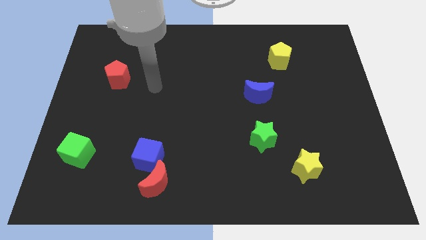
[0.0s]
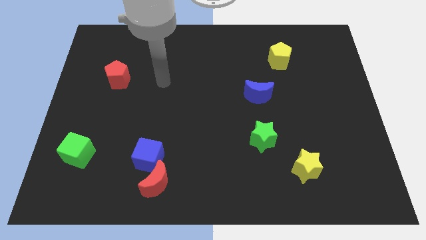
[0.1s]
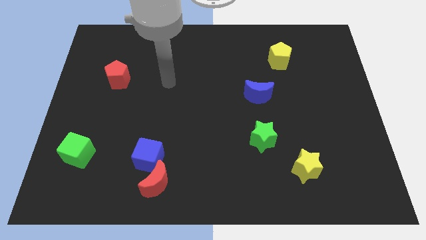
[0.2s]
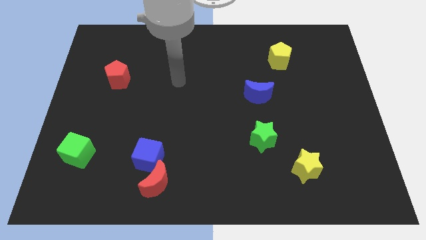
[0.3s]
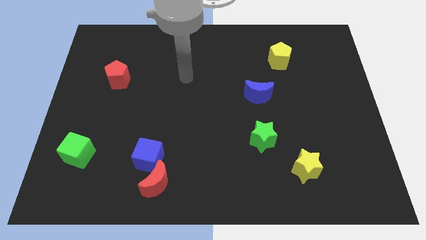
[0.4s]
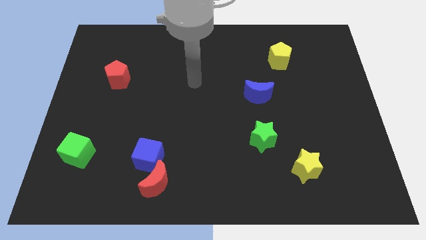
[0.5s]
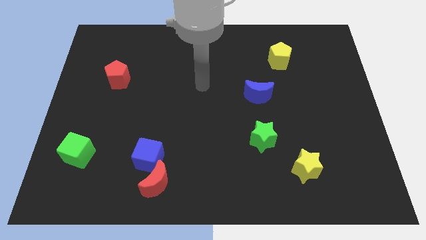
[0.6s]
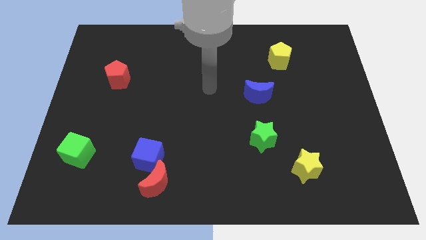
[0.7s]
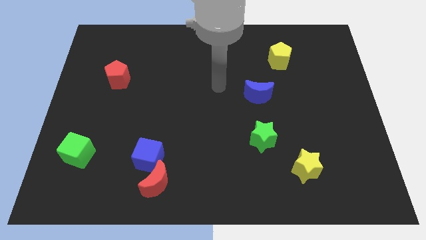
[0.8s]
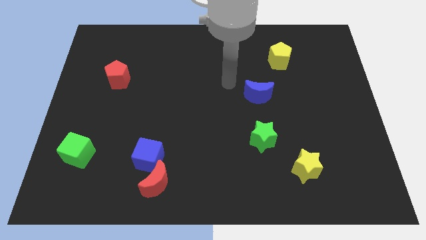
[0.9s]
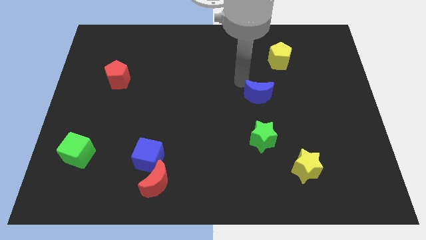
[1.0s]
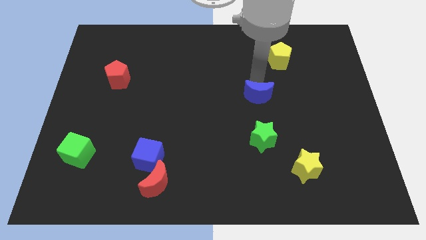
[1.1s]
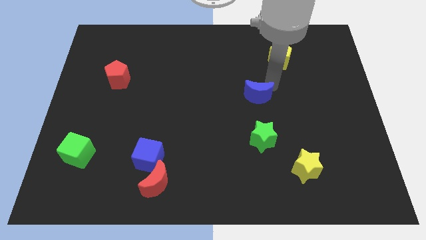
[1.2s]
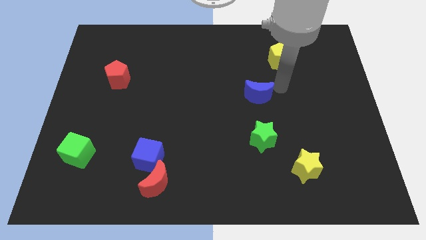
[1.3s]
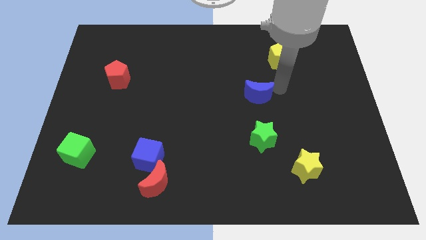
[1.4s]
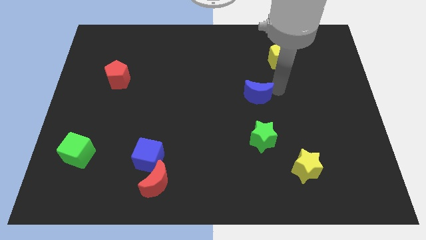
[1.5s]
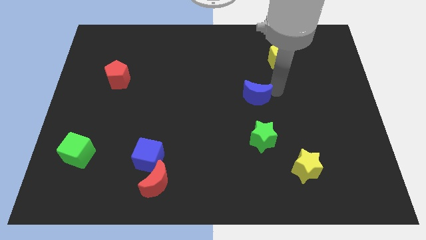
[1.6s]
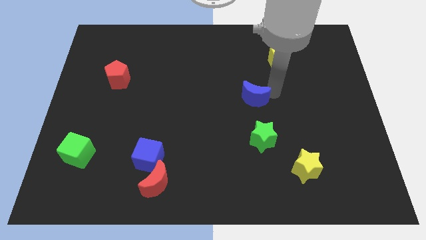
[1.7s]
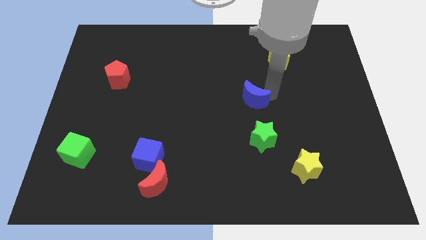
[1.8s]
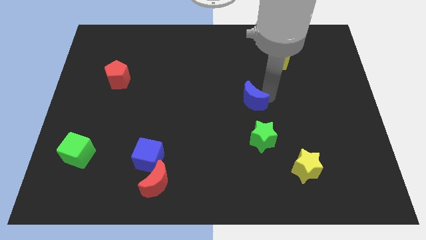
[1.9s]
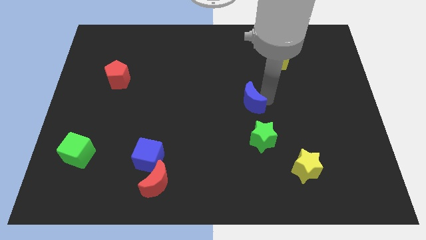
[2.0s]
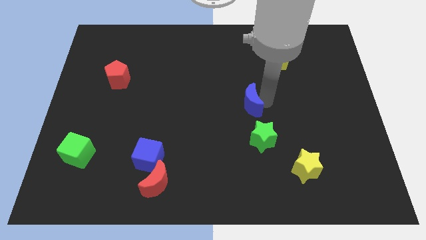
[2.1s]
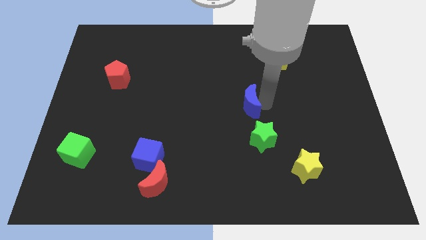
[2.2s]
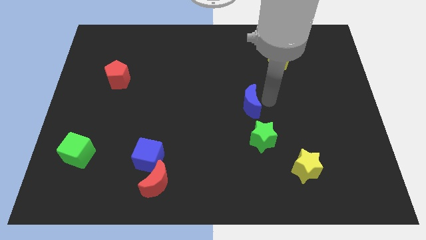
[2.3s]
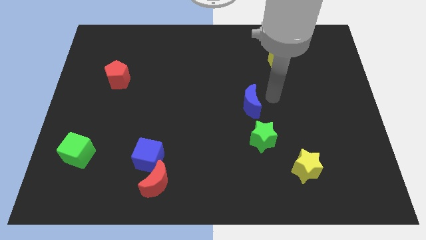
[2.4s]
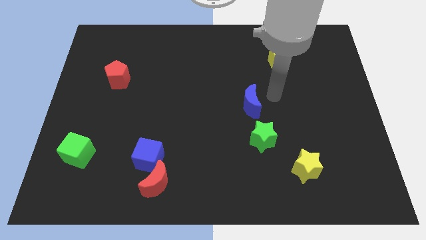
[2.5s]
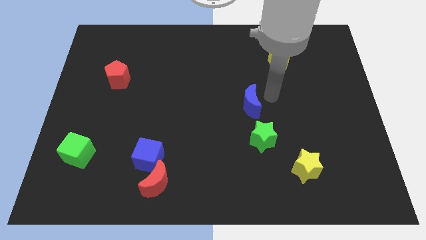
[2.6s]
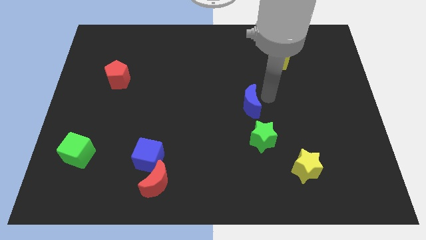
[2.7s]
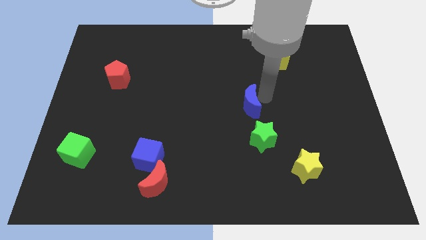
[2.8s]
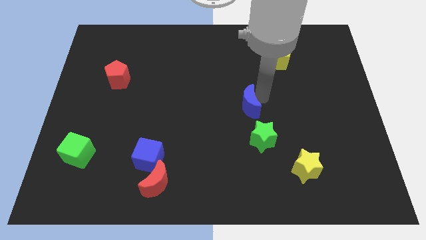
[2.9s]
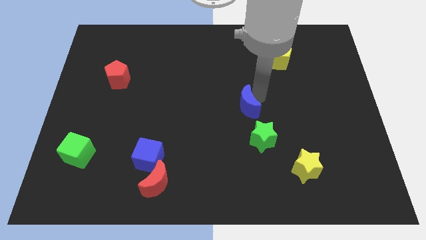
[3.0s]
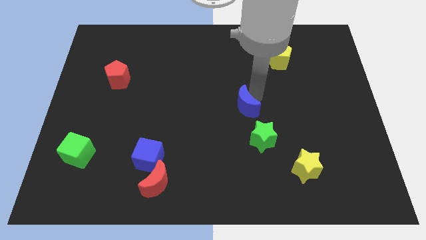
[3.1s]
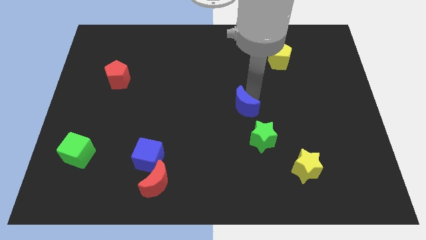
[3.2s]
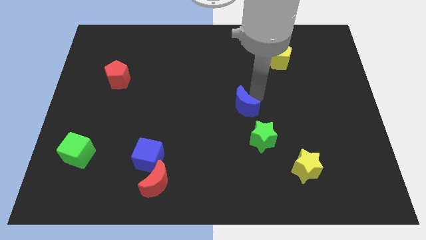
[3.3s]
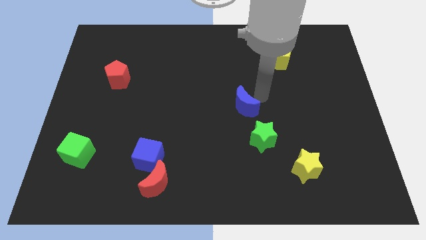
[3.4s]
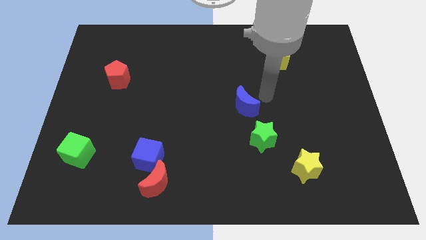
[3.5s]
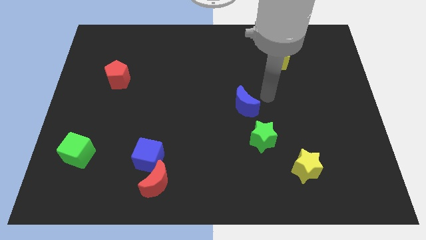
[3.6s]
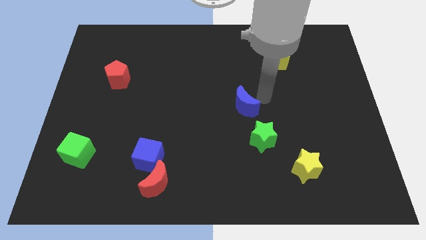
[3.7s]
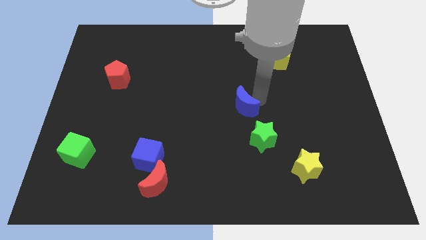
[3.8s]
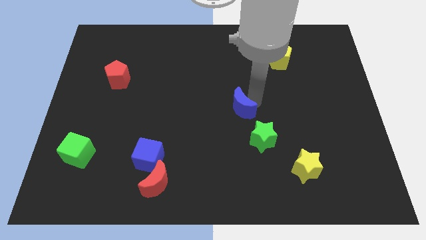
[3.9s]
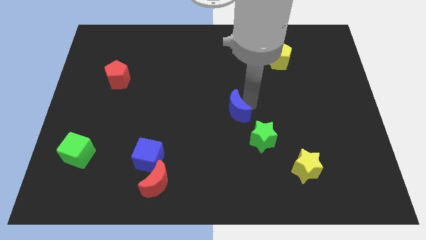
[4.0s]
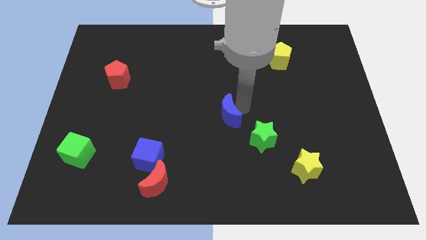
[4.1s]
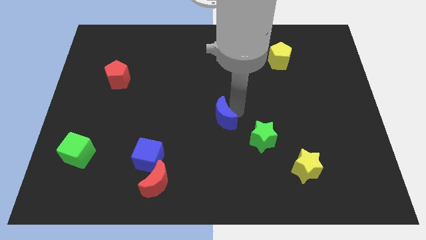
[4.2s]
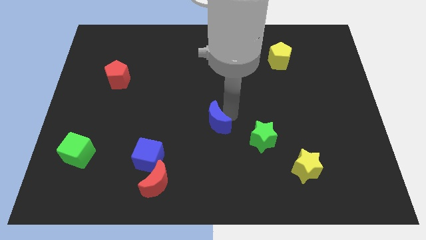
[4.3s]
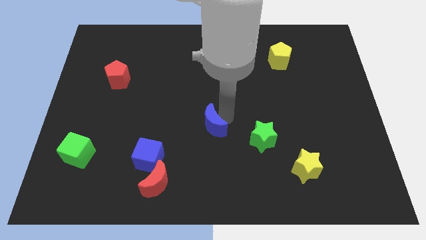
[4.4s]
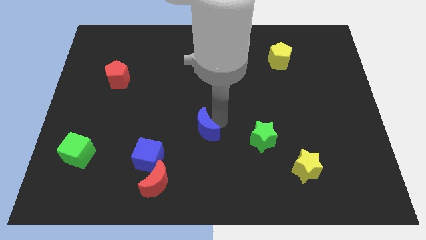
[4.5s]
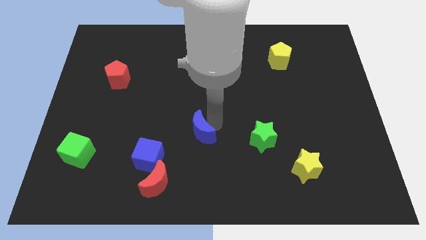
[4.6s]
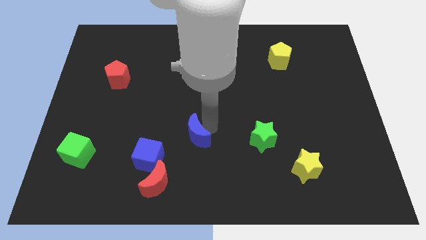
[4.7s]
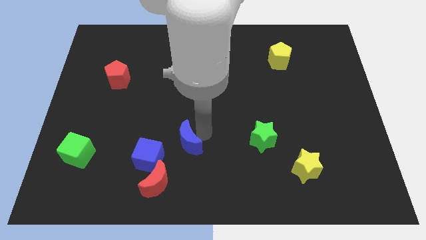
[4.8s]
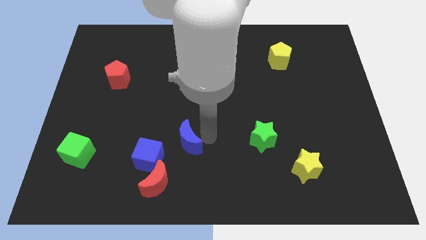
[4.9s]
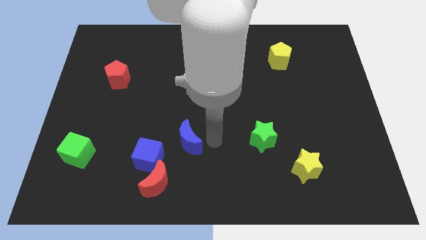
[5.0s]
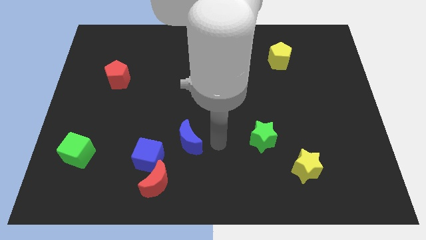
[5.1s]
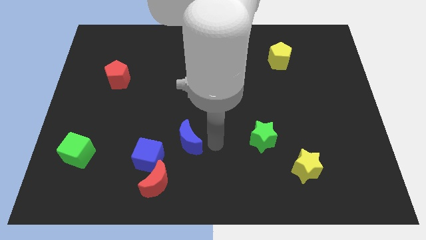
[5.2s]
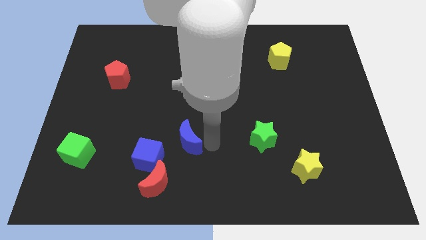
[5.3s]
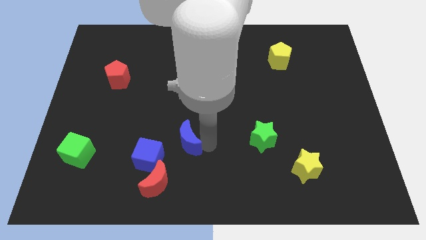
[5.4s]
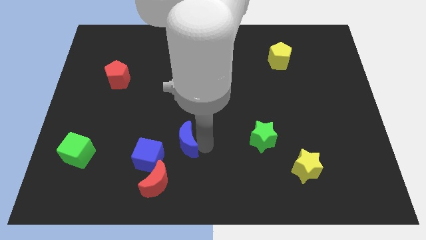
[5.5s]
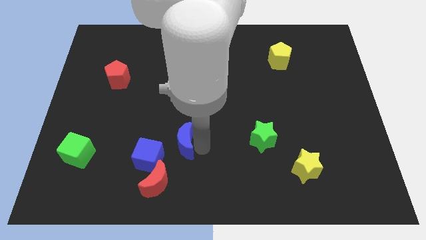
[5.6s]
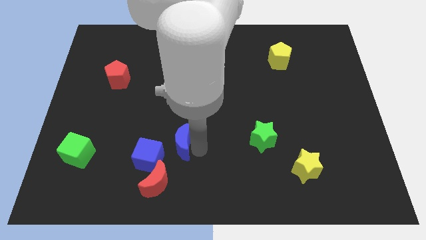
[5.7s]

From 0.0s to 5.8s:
move the blue moon to the top side of the red moon

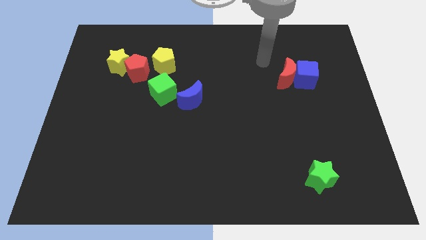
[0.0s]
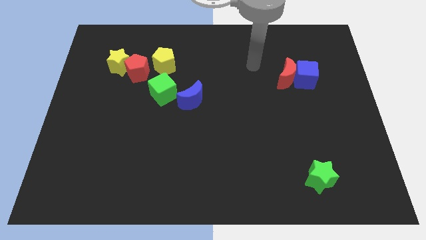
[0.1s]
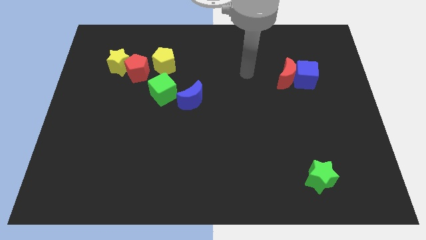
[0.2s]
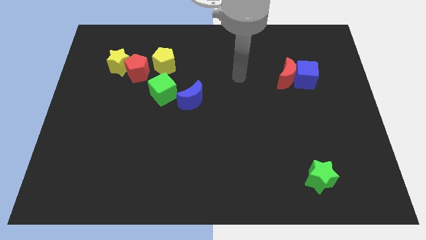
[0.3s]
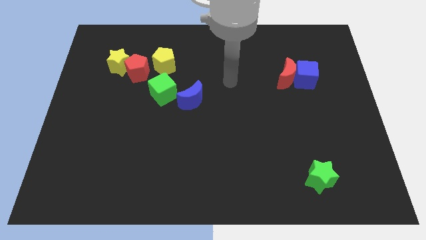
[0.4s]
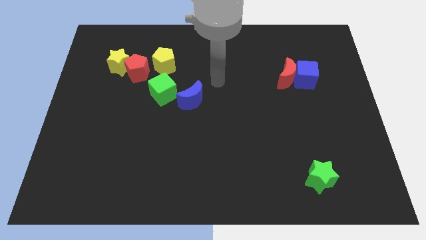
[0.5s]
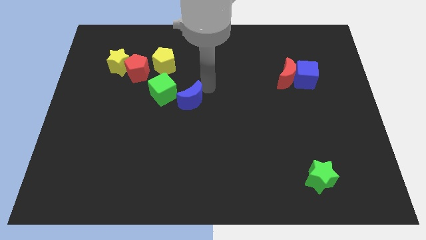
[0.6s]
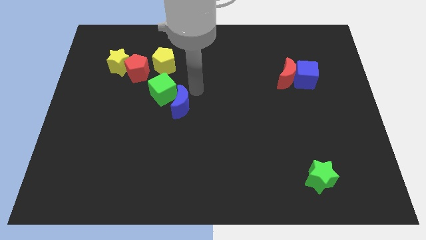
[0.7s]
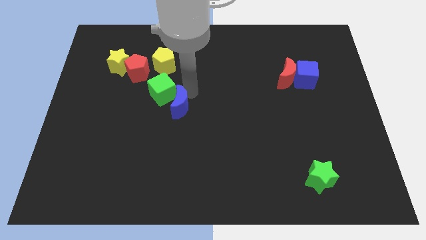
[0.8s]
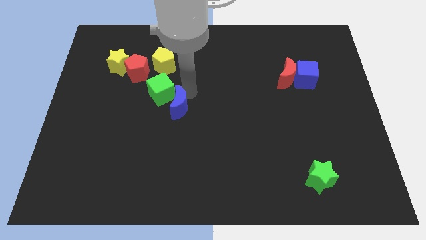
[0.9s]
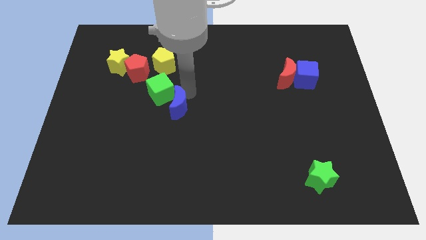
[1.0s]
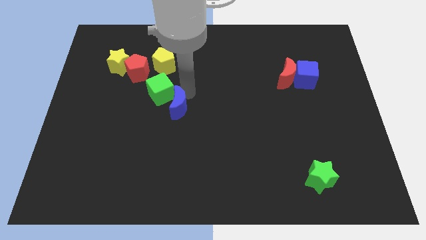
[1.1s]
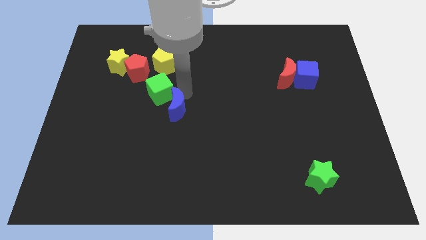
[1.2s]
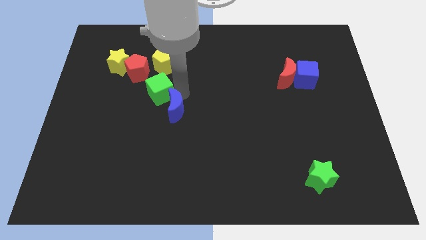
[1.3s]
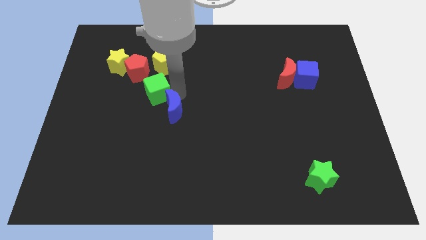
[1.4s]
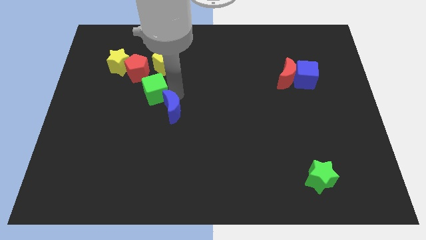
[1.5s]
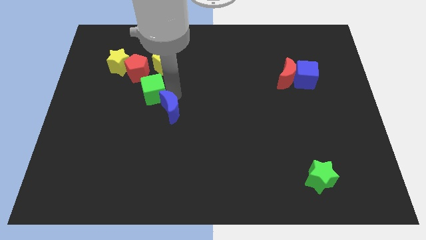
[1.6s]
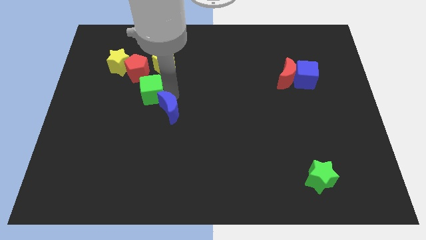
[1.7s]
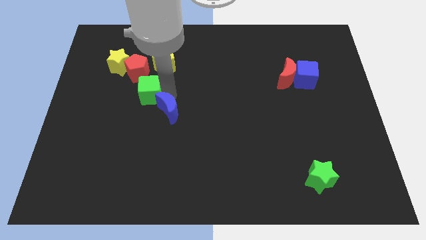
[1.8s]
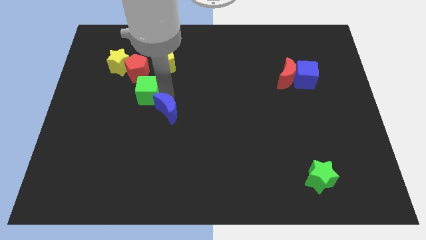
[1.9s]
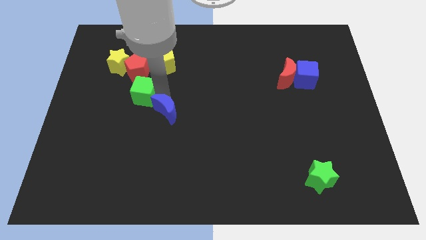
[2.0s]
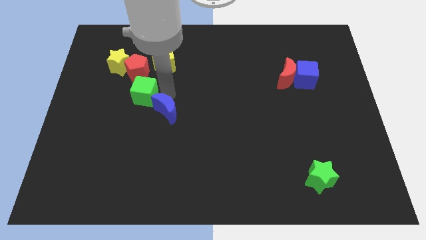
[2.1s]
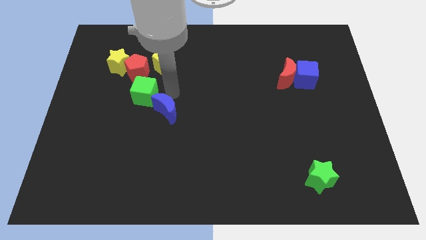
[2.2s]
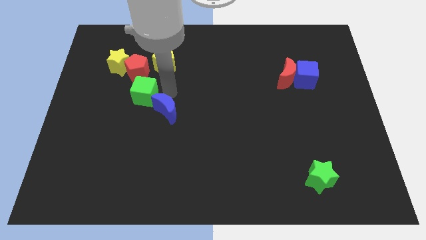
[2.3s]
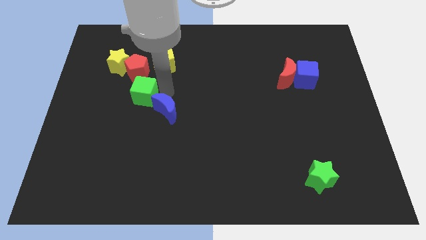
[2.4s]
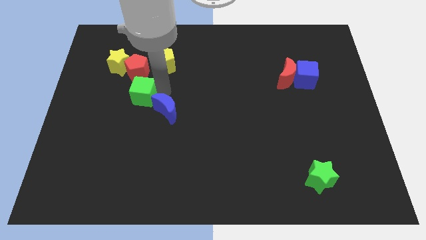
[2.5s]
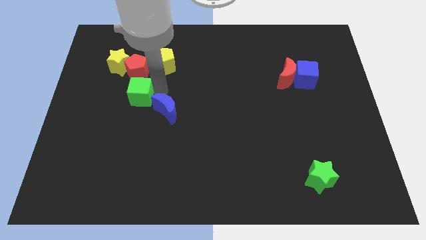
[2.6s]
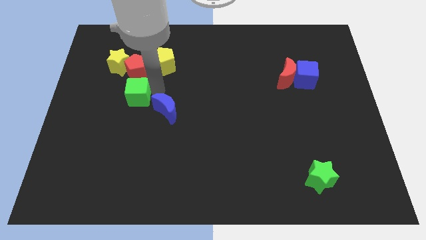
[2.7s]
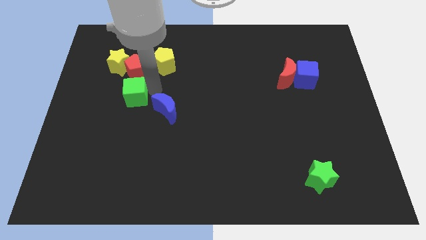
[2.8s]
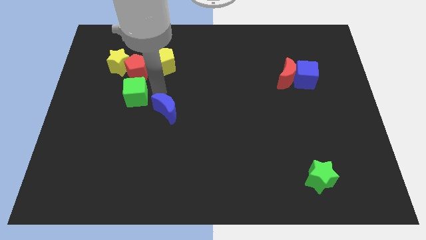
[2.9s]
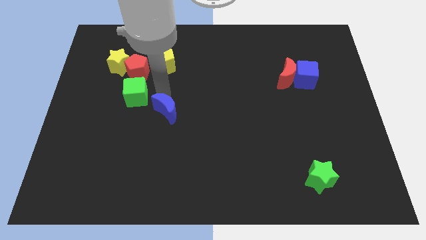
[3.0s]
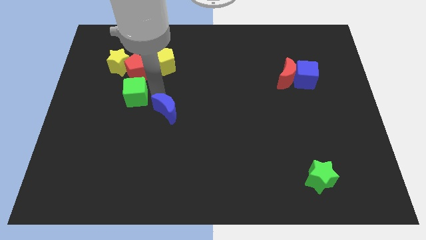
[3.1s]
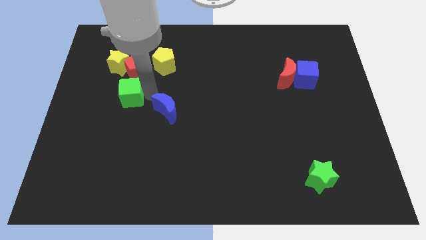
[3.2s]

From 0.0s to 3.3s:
slide the green cube to the bottom of the yellow star
